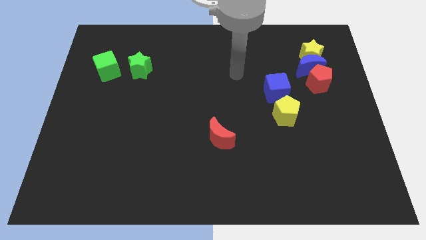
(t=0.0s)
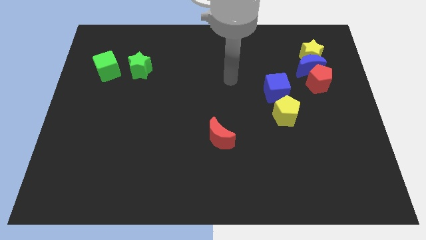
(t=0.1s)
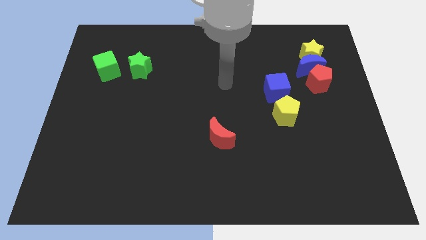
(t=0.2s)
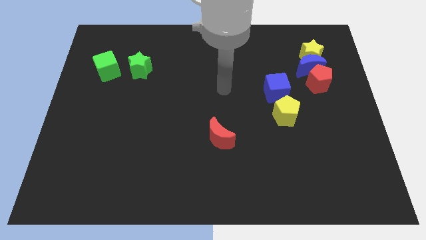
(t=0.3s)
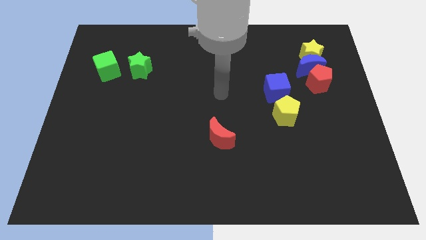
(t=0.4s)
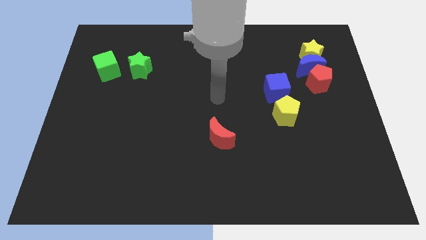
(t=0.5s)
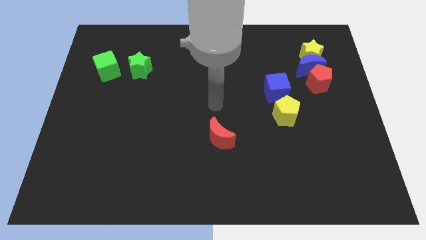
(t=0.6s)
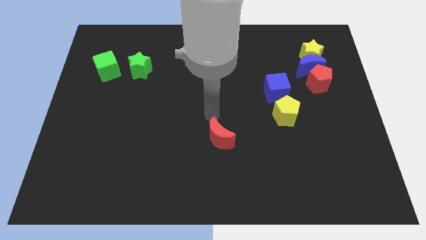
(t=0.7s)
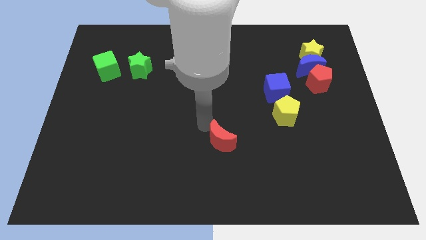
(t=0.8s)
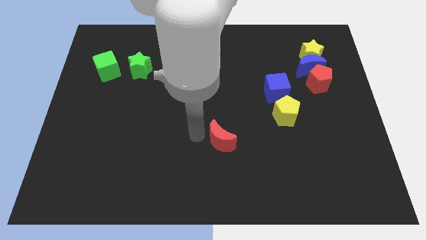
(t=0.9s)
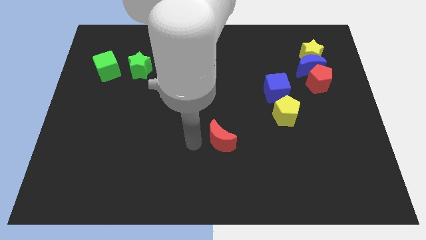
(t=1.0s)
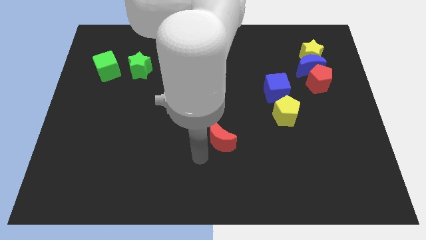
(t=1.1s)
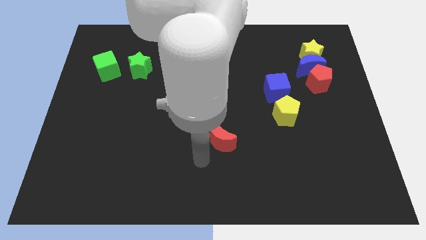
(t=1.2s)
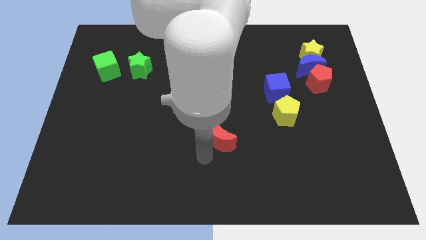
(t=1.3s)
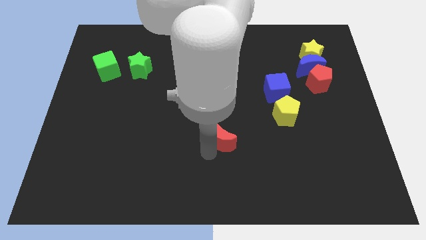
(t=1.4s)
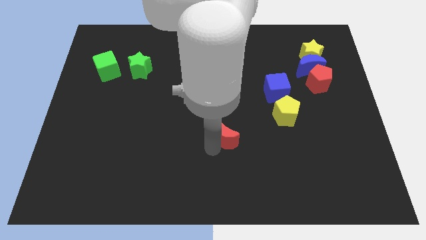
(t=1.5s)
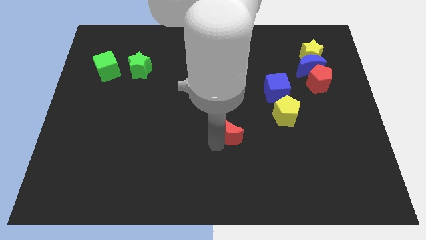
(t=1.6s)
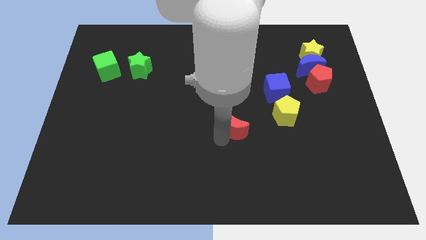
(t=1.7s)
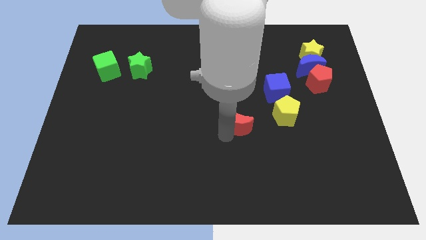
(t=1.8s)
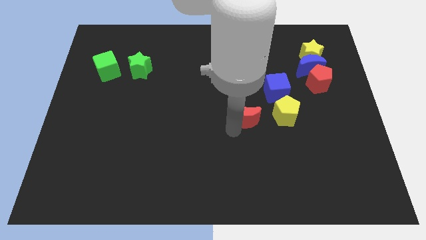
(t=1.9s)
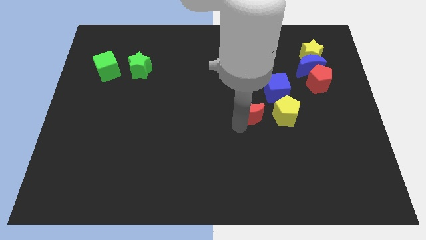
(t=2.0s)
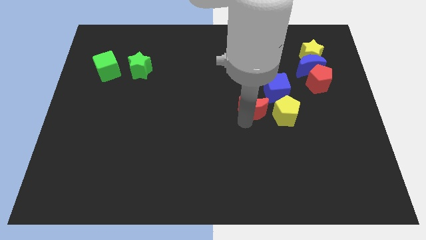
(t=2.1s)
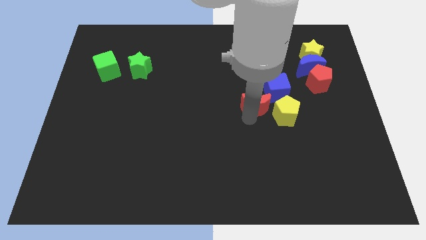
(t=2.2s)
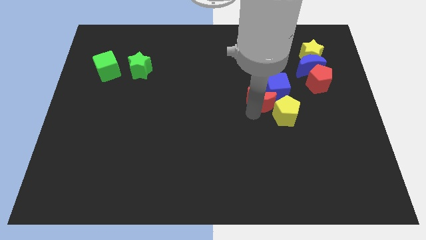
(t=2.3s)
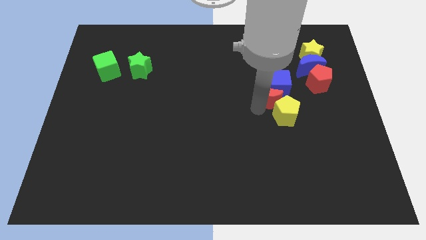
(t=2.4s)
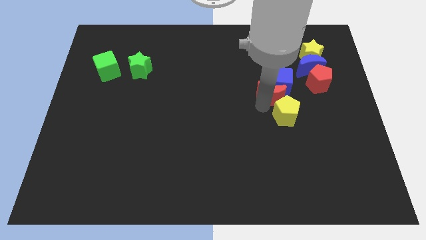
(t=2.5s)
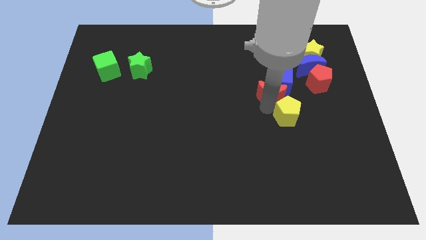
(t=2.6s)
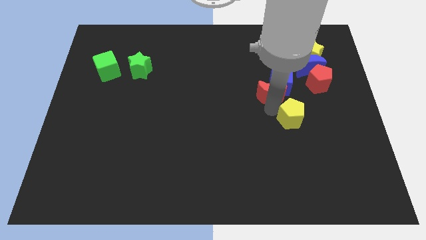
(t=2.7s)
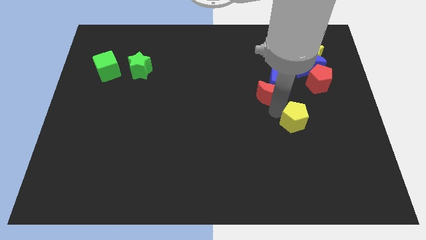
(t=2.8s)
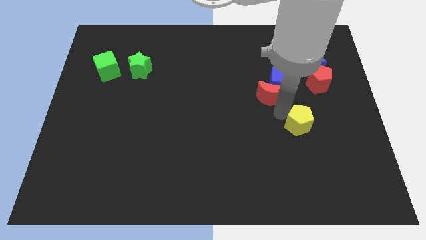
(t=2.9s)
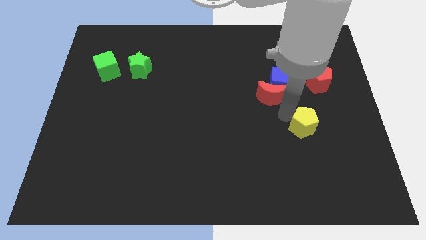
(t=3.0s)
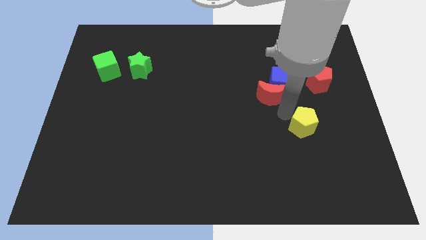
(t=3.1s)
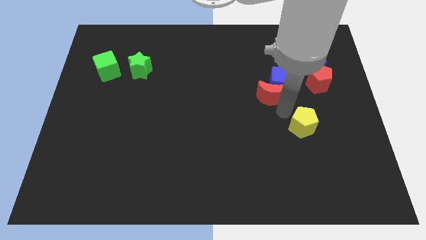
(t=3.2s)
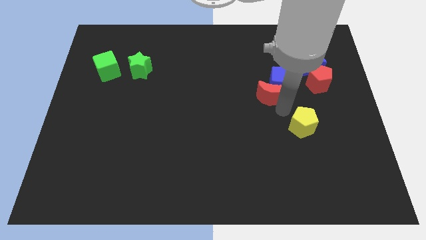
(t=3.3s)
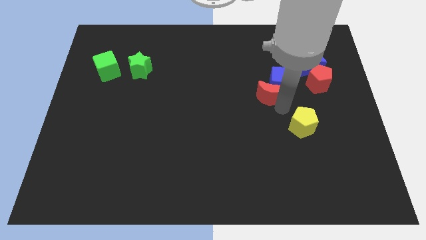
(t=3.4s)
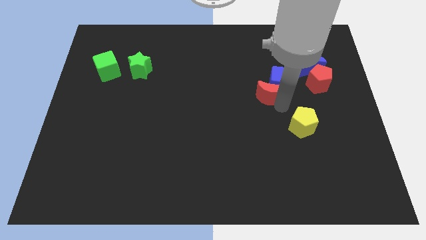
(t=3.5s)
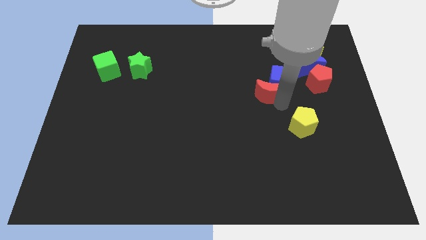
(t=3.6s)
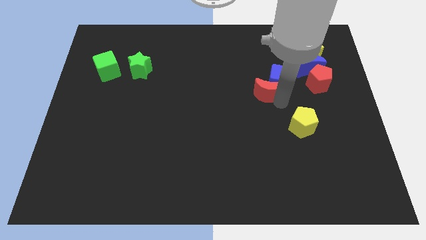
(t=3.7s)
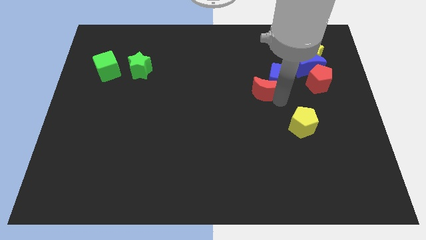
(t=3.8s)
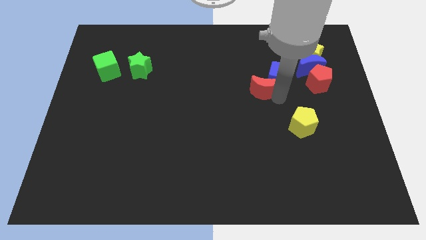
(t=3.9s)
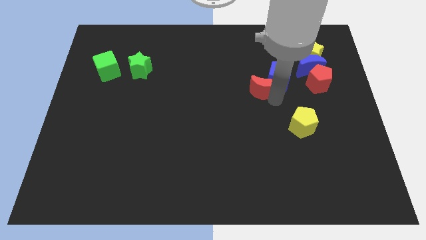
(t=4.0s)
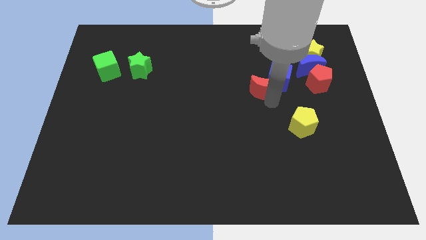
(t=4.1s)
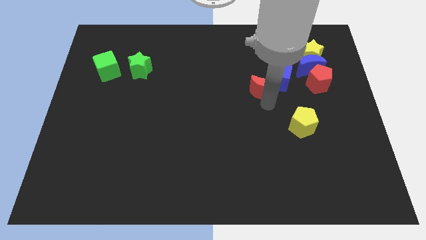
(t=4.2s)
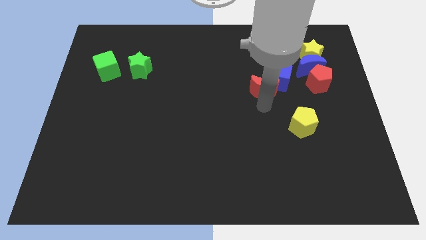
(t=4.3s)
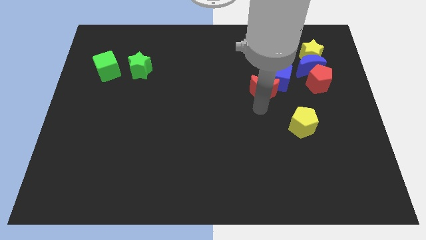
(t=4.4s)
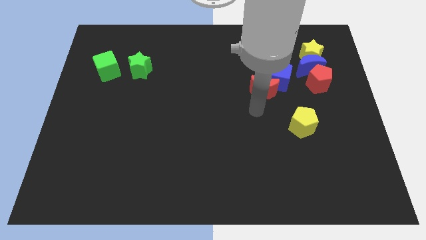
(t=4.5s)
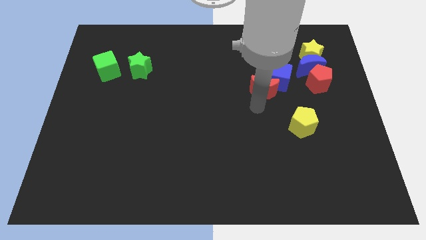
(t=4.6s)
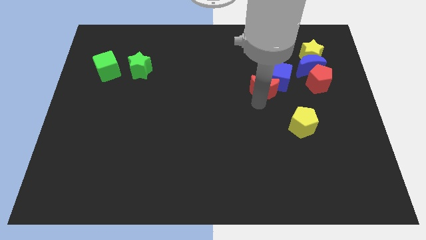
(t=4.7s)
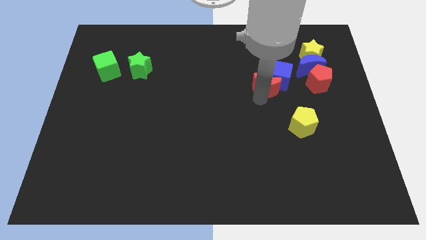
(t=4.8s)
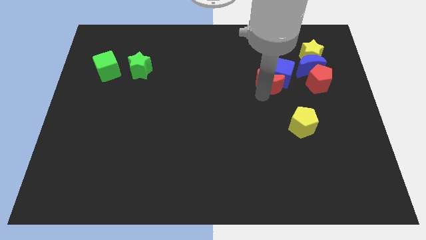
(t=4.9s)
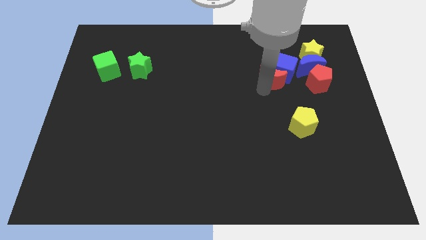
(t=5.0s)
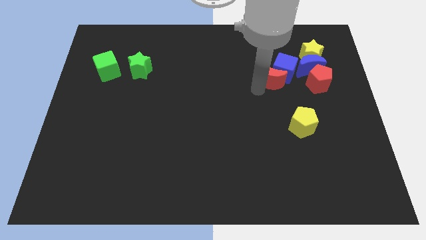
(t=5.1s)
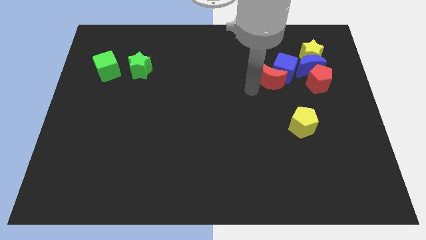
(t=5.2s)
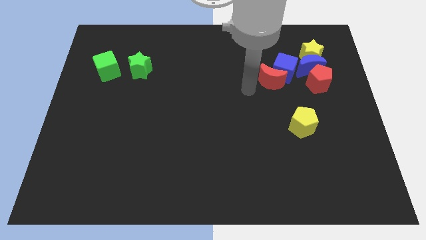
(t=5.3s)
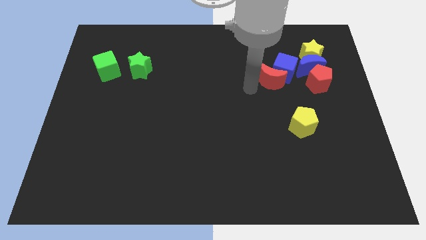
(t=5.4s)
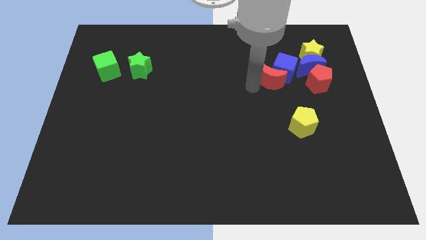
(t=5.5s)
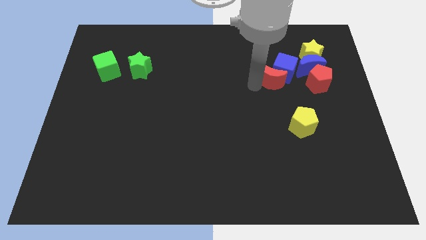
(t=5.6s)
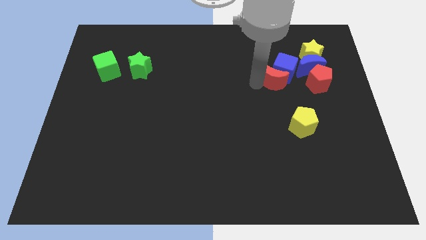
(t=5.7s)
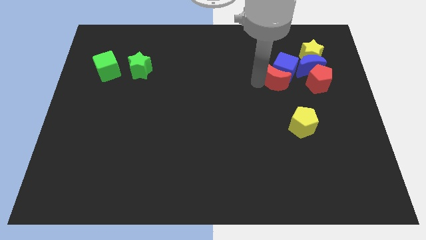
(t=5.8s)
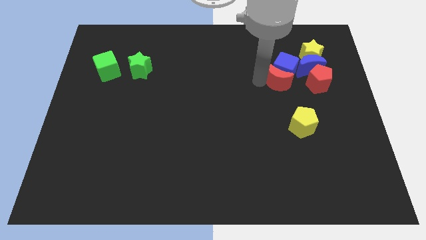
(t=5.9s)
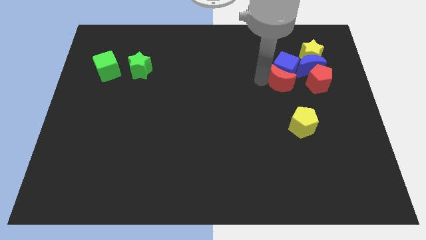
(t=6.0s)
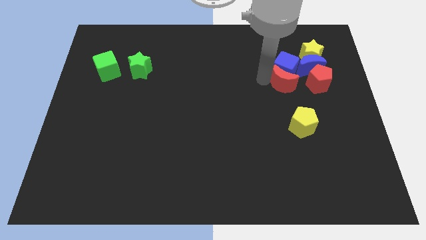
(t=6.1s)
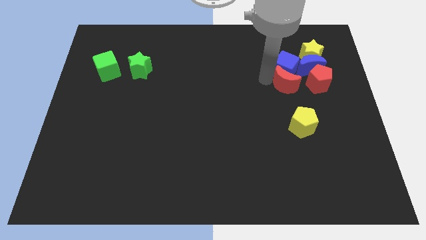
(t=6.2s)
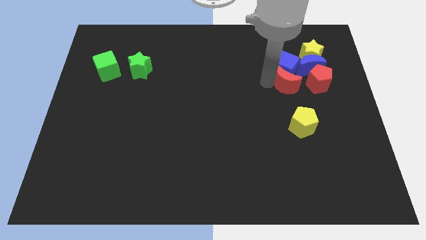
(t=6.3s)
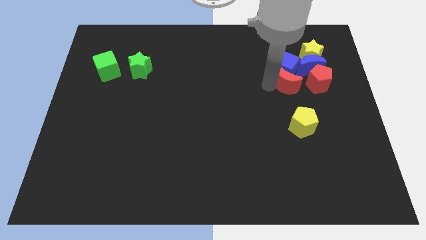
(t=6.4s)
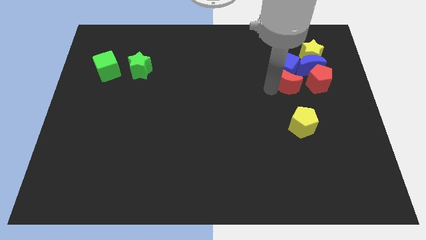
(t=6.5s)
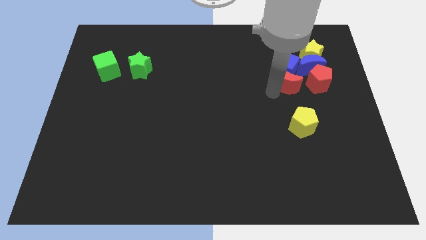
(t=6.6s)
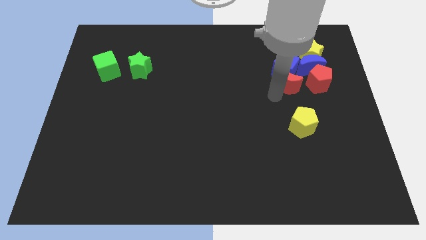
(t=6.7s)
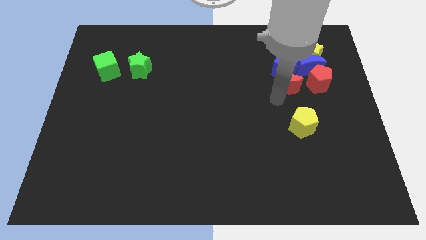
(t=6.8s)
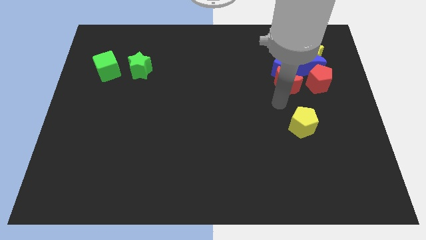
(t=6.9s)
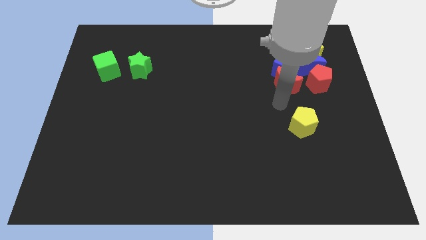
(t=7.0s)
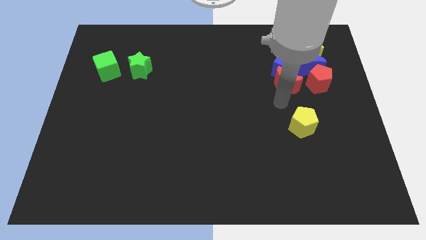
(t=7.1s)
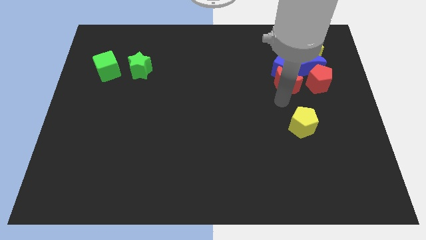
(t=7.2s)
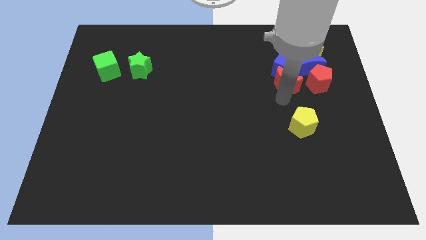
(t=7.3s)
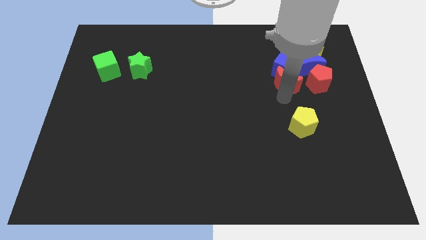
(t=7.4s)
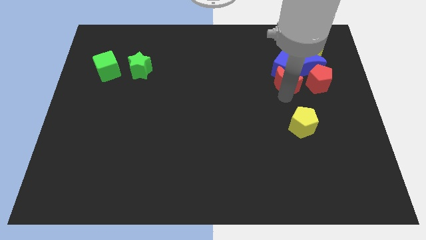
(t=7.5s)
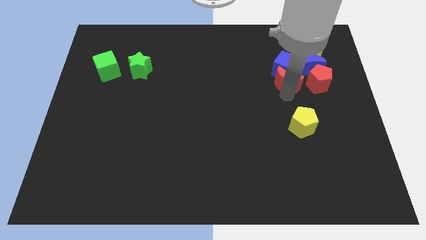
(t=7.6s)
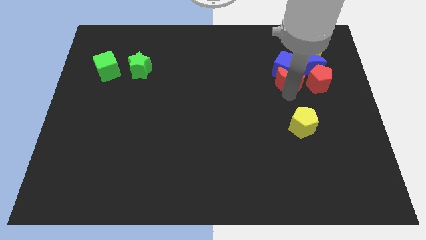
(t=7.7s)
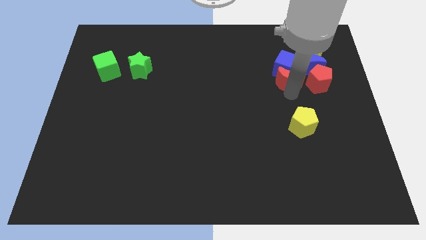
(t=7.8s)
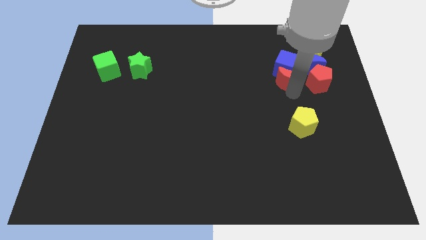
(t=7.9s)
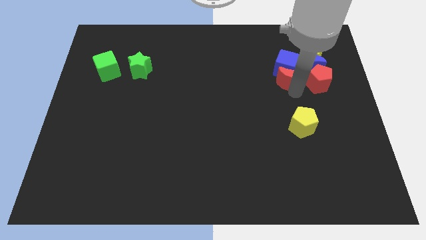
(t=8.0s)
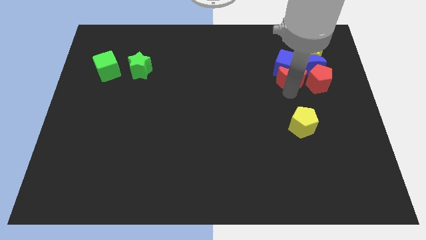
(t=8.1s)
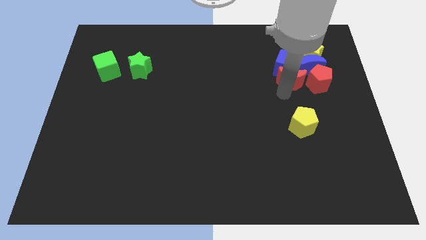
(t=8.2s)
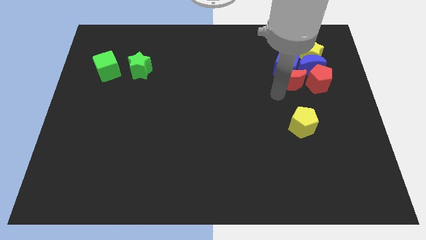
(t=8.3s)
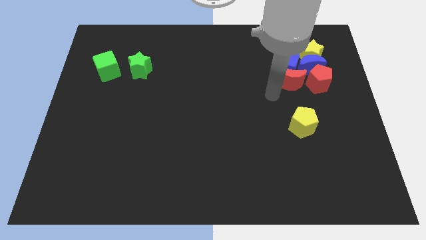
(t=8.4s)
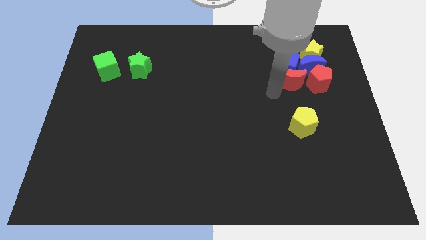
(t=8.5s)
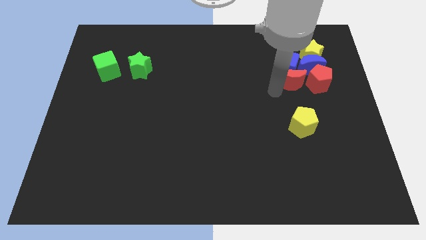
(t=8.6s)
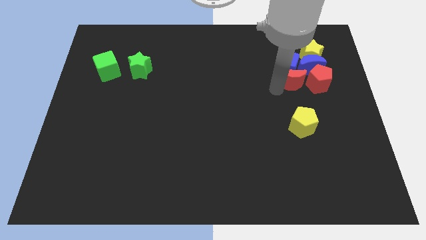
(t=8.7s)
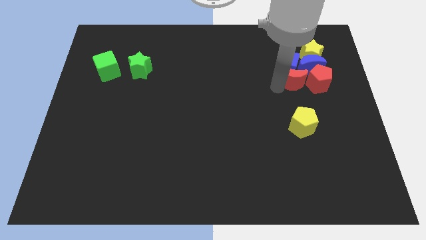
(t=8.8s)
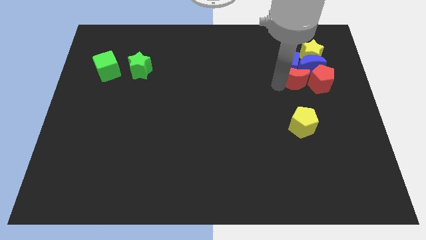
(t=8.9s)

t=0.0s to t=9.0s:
push the red moon to the blue moon
